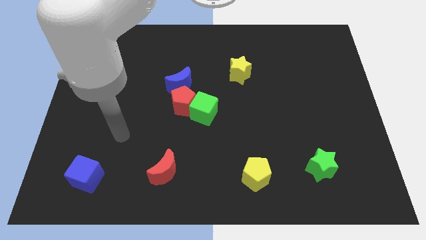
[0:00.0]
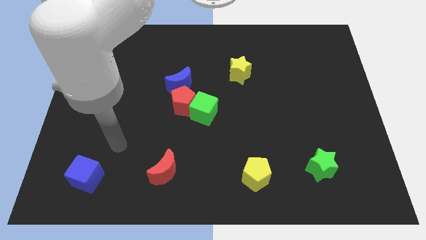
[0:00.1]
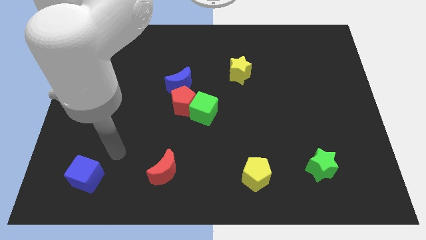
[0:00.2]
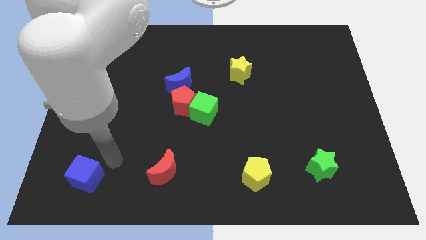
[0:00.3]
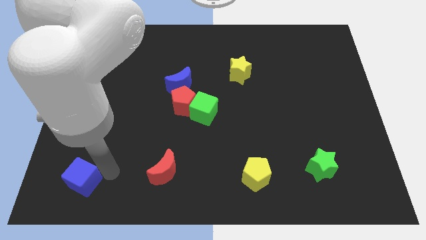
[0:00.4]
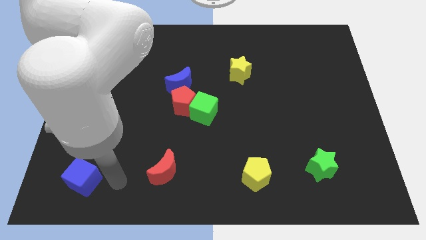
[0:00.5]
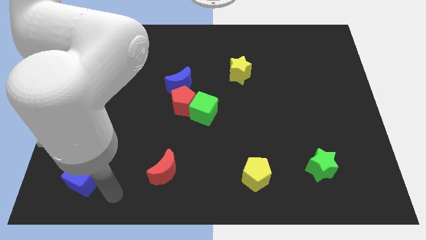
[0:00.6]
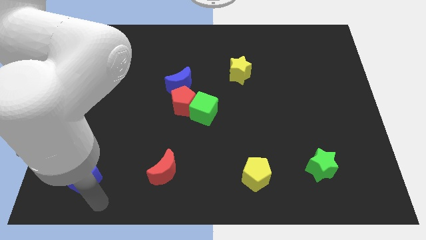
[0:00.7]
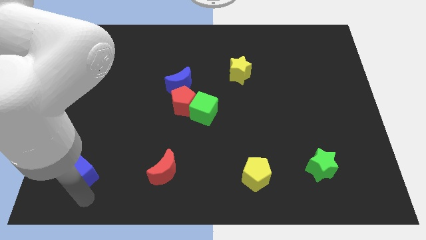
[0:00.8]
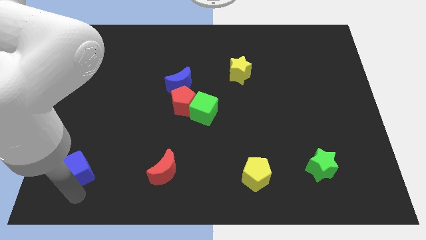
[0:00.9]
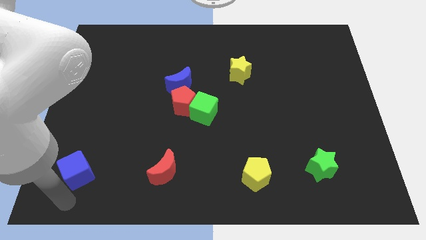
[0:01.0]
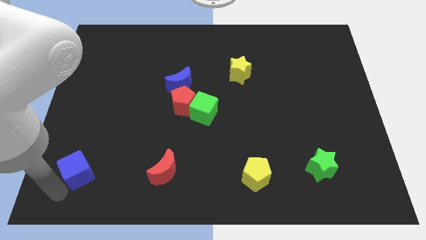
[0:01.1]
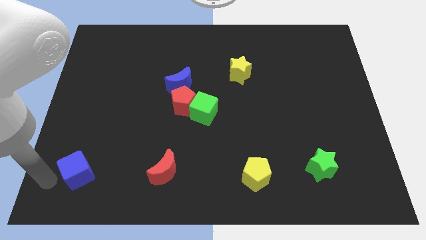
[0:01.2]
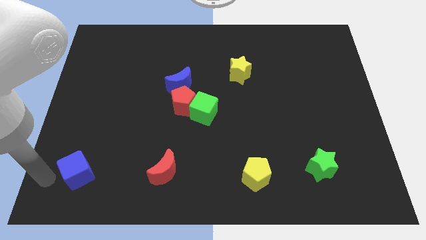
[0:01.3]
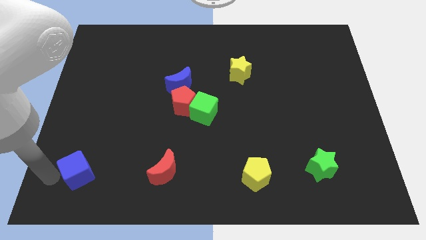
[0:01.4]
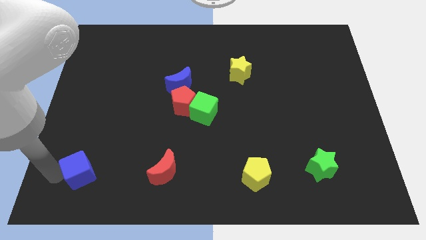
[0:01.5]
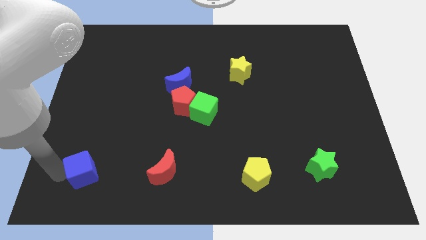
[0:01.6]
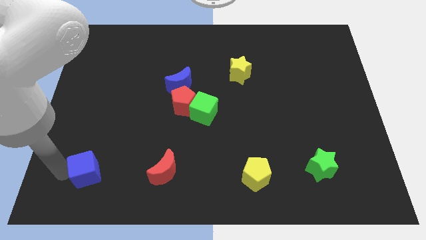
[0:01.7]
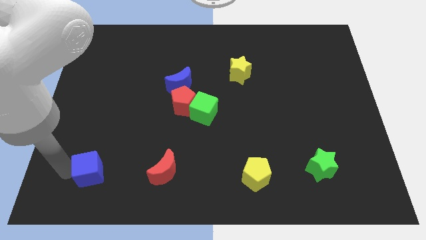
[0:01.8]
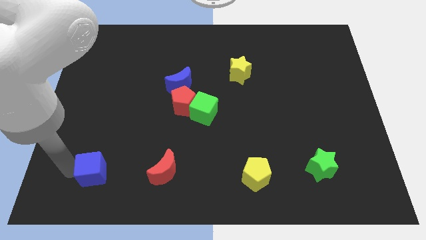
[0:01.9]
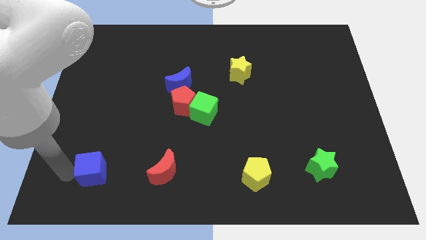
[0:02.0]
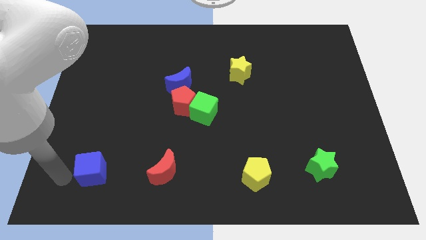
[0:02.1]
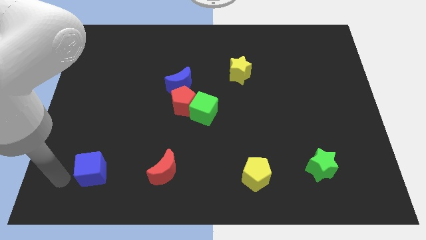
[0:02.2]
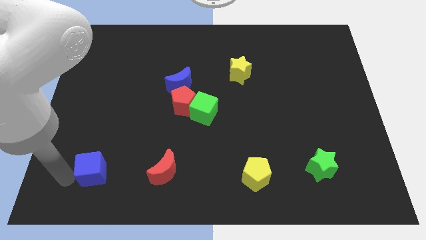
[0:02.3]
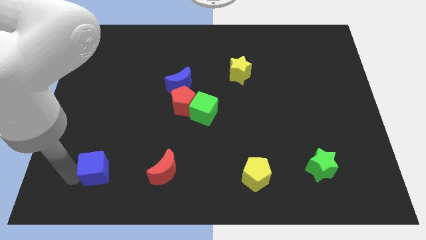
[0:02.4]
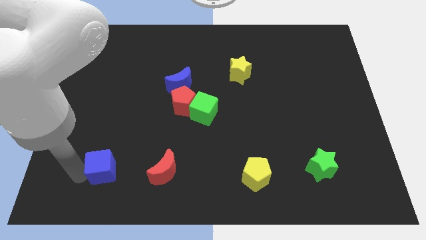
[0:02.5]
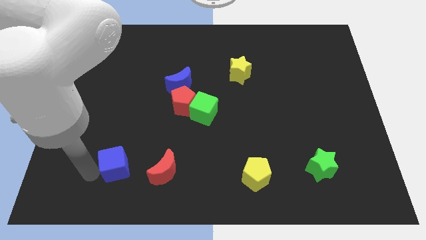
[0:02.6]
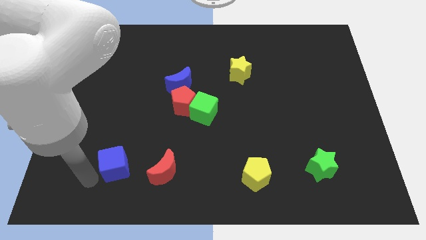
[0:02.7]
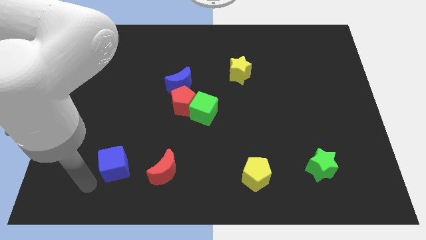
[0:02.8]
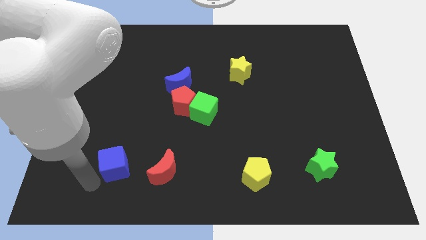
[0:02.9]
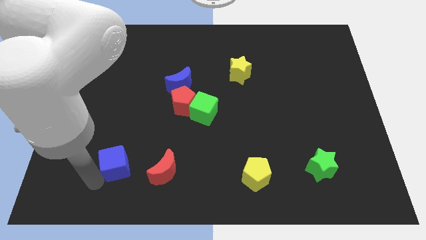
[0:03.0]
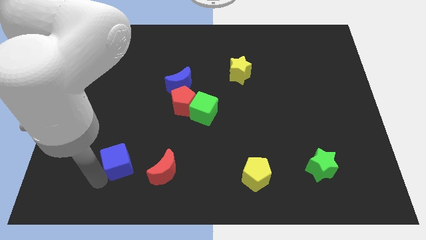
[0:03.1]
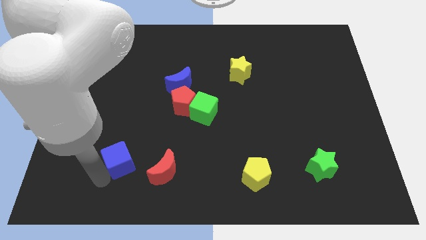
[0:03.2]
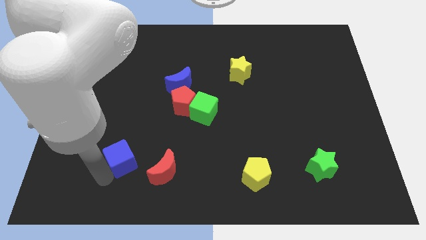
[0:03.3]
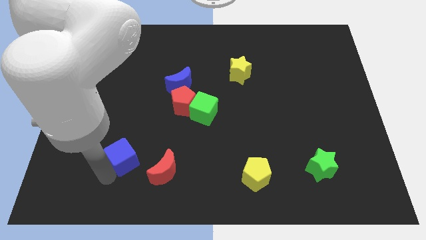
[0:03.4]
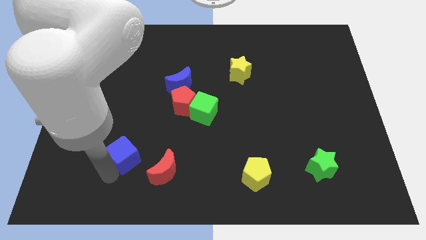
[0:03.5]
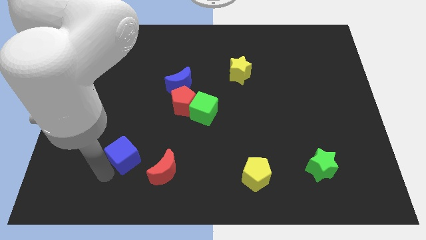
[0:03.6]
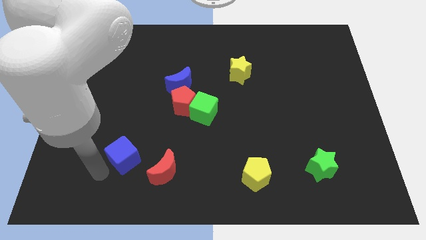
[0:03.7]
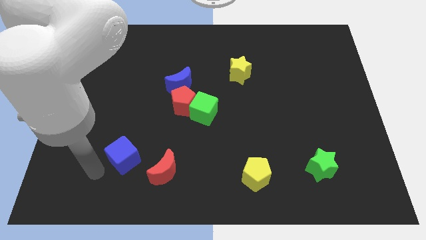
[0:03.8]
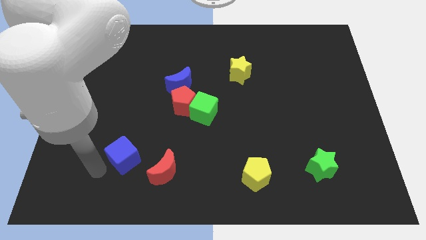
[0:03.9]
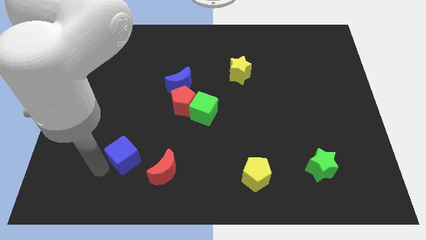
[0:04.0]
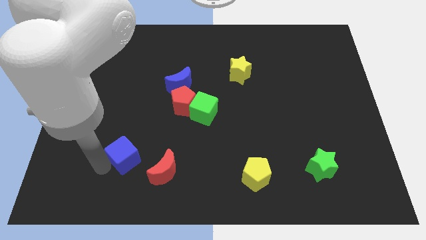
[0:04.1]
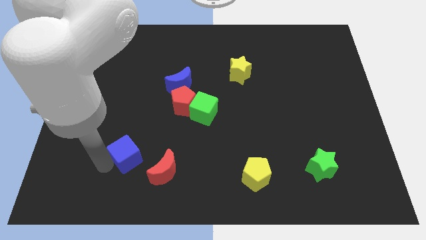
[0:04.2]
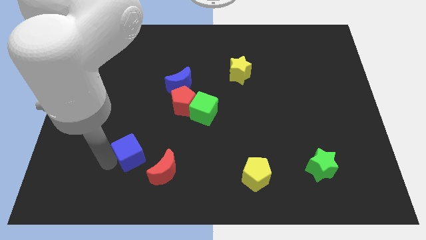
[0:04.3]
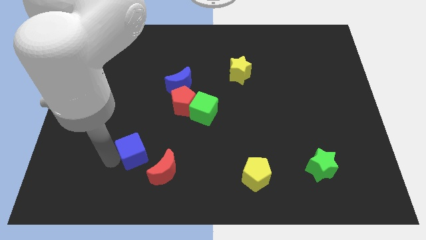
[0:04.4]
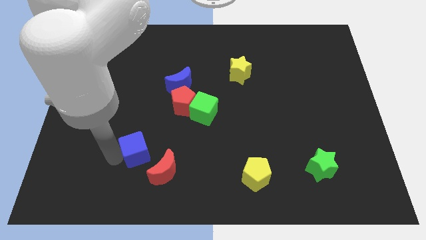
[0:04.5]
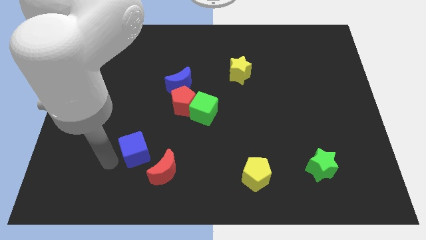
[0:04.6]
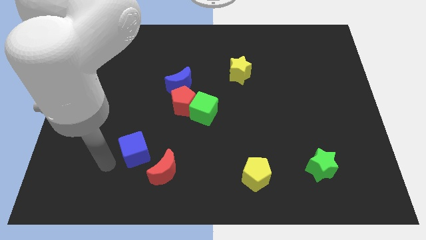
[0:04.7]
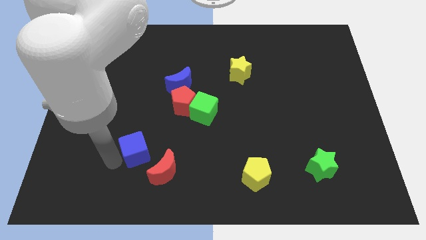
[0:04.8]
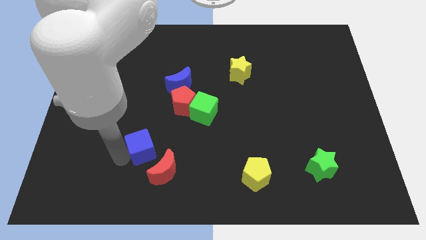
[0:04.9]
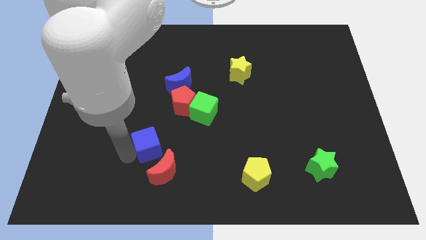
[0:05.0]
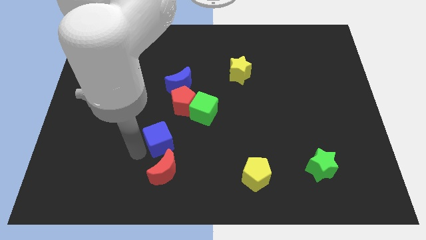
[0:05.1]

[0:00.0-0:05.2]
move the blue cube diagonally down and to the left of the green cube

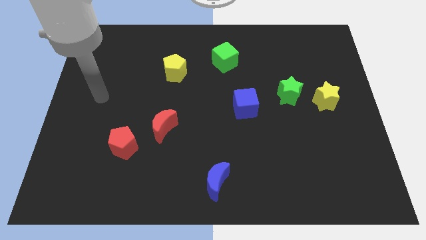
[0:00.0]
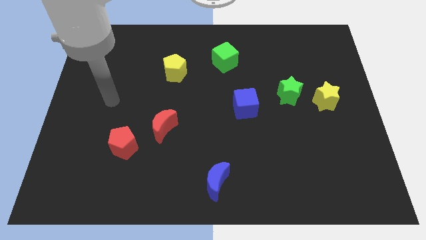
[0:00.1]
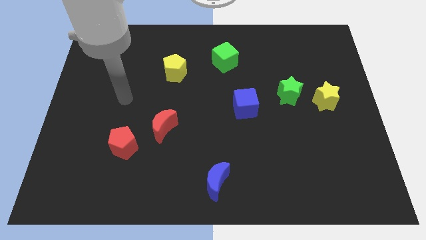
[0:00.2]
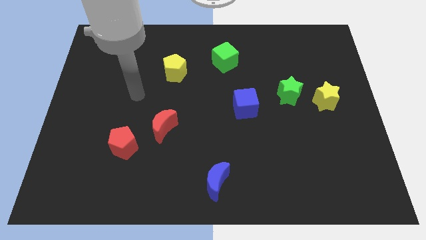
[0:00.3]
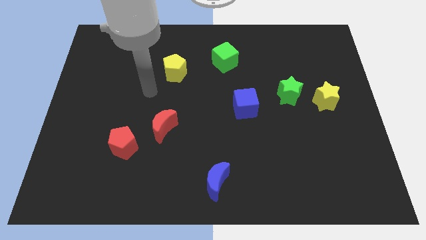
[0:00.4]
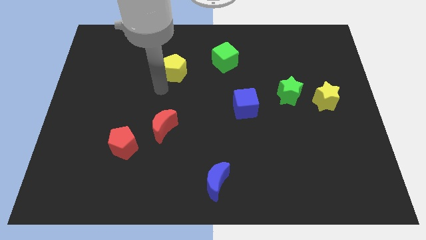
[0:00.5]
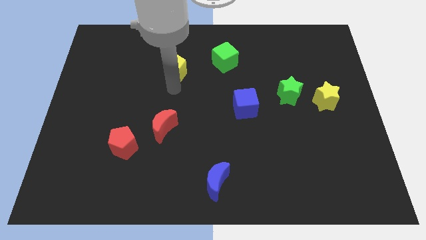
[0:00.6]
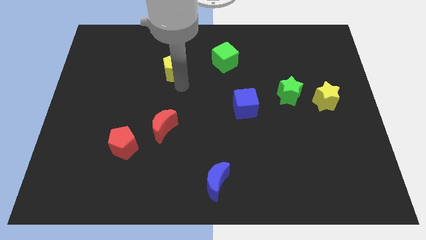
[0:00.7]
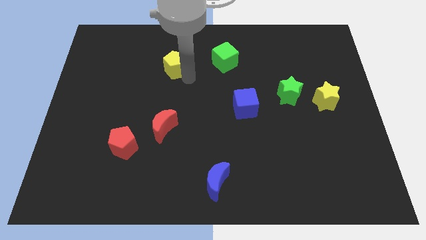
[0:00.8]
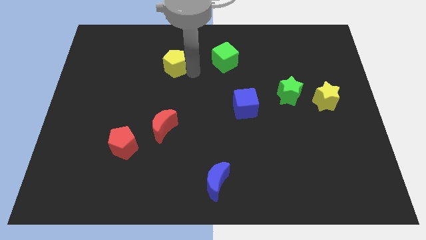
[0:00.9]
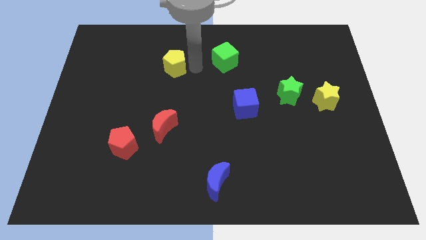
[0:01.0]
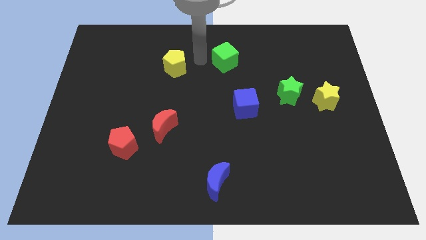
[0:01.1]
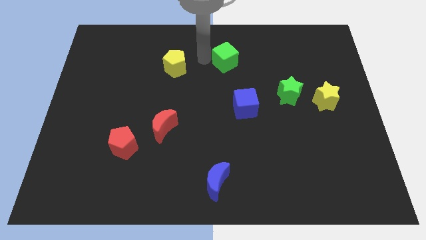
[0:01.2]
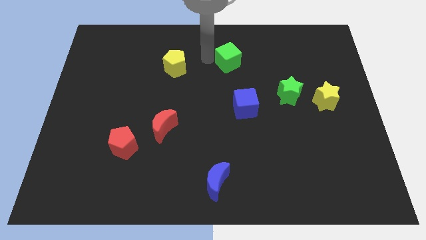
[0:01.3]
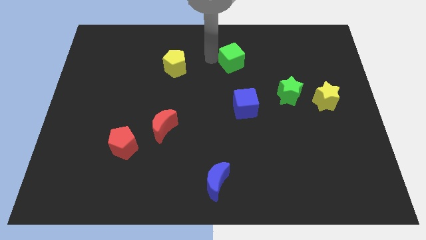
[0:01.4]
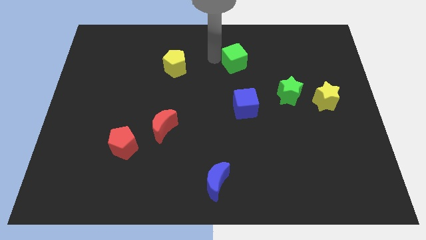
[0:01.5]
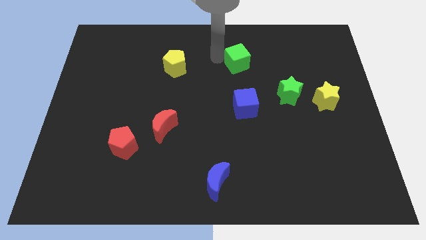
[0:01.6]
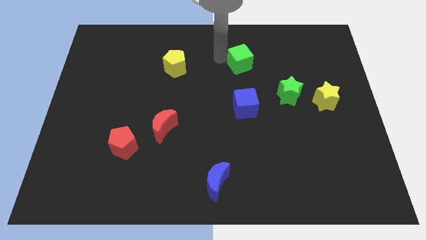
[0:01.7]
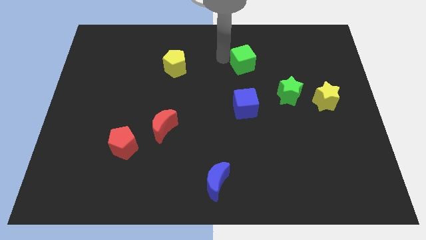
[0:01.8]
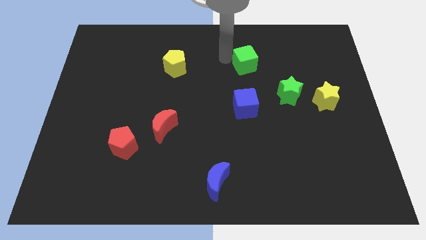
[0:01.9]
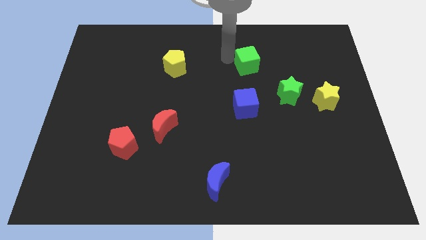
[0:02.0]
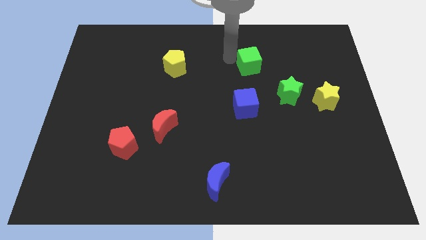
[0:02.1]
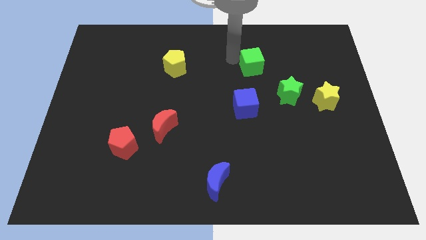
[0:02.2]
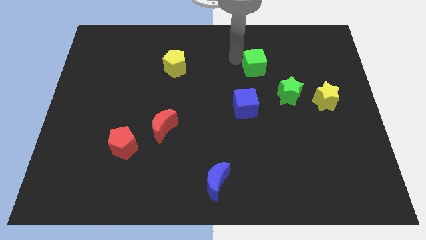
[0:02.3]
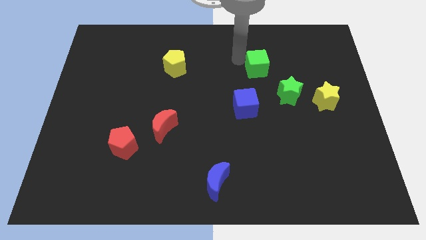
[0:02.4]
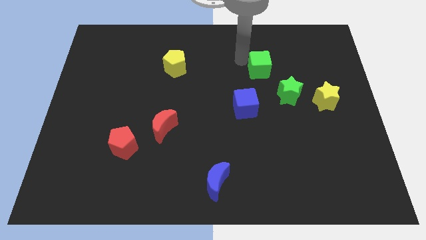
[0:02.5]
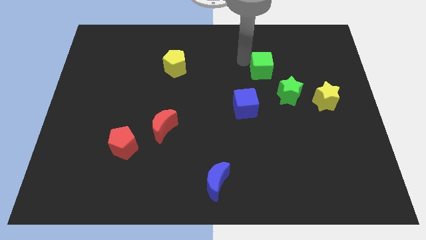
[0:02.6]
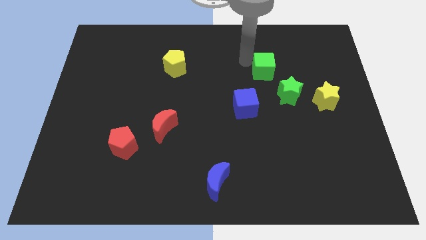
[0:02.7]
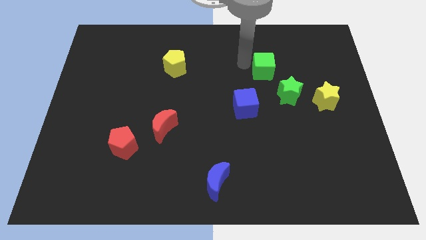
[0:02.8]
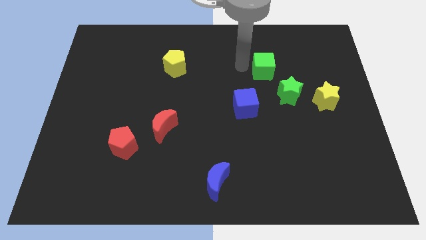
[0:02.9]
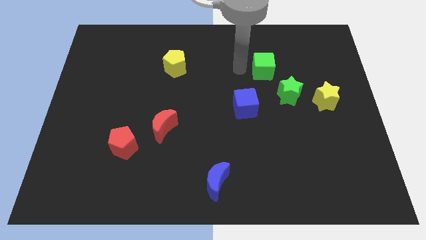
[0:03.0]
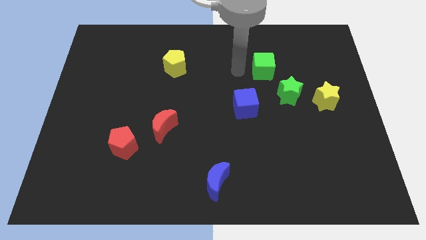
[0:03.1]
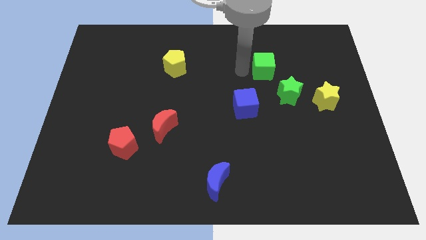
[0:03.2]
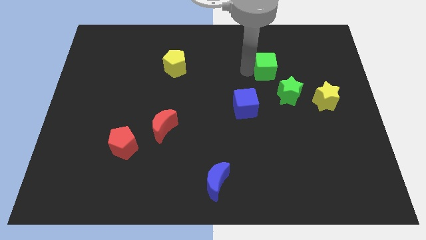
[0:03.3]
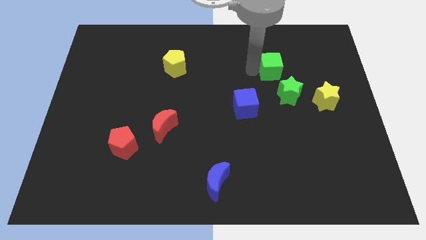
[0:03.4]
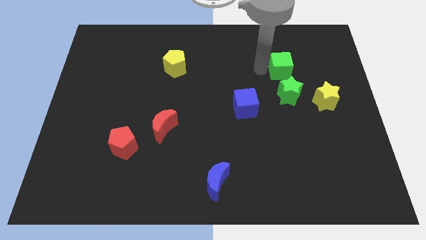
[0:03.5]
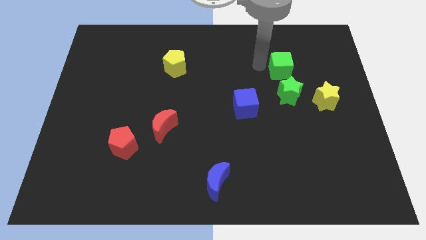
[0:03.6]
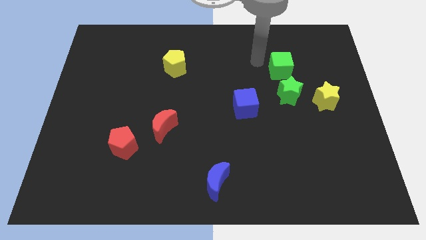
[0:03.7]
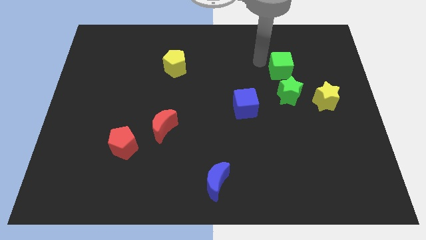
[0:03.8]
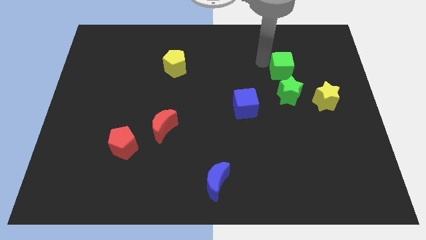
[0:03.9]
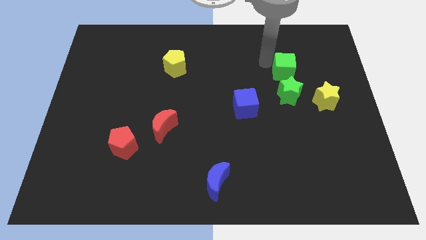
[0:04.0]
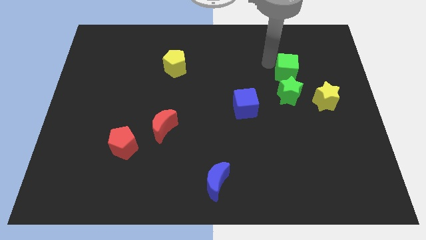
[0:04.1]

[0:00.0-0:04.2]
put the green cube to the top right side of the green star
